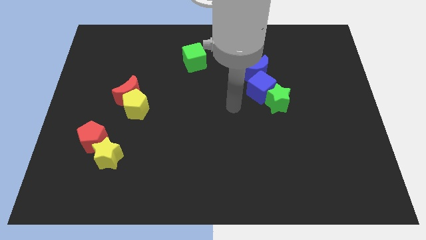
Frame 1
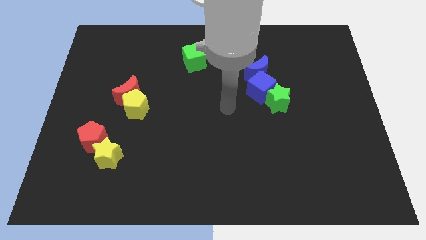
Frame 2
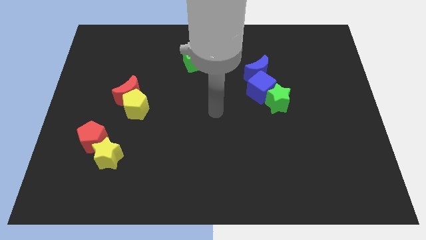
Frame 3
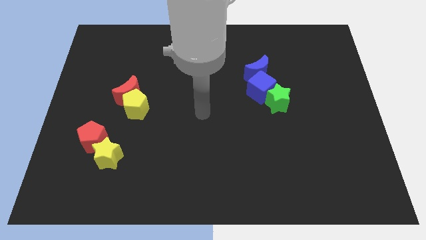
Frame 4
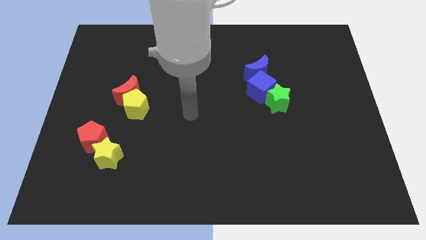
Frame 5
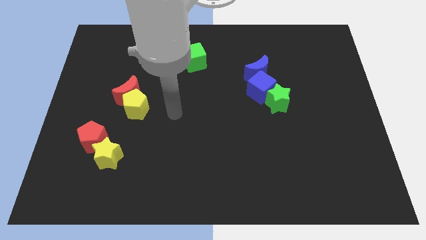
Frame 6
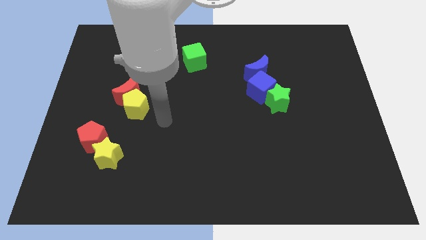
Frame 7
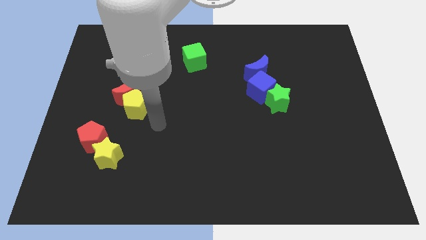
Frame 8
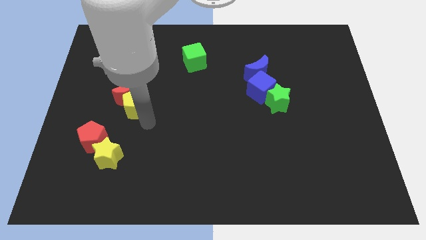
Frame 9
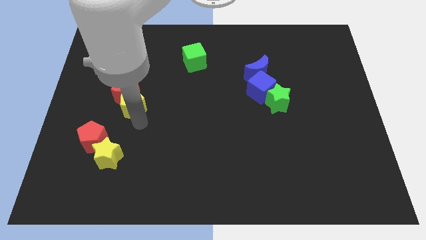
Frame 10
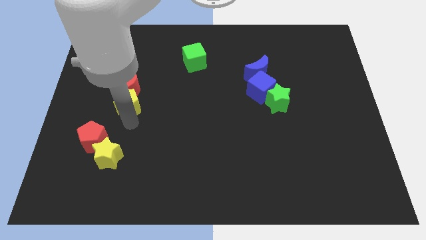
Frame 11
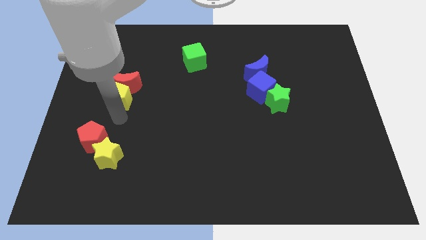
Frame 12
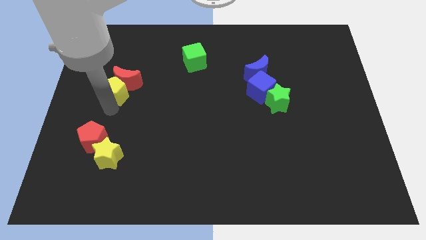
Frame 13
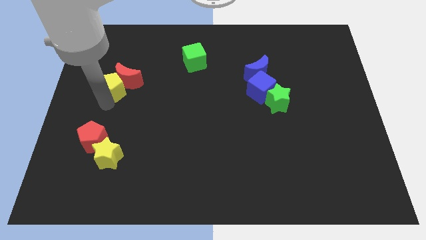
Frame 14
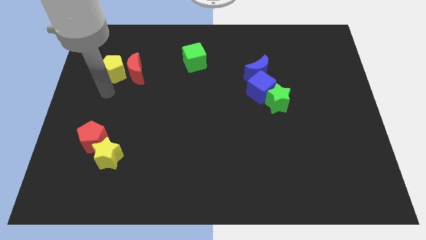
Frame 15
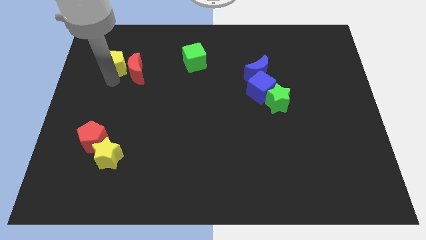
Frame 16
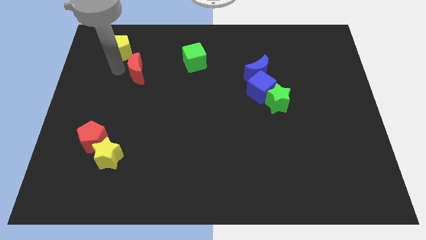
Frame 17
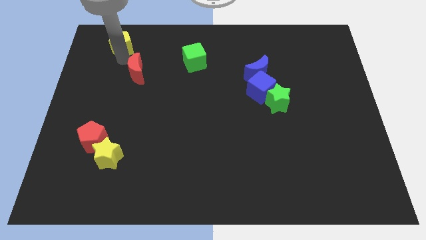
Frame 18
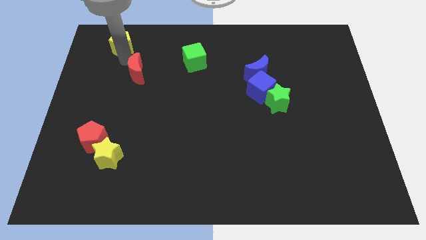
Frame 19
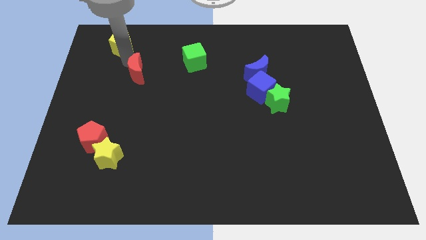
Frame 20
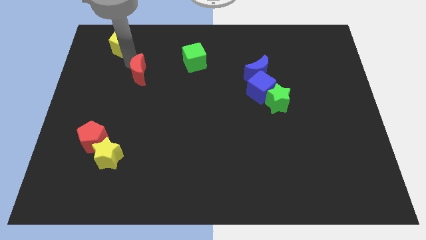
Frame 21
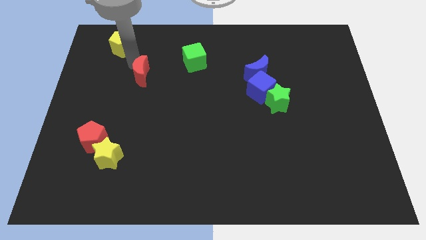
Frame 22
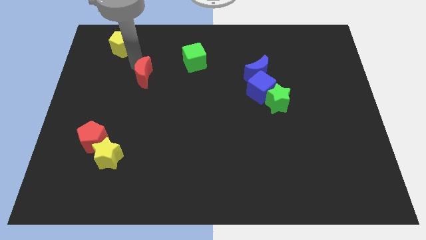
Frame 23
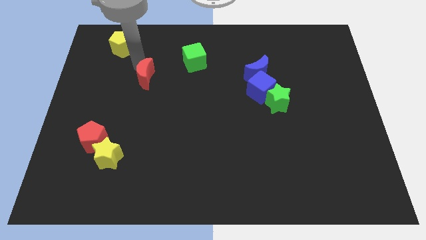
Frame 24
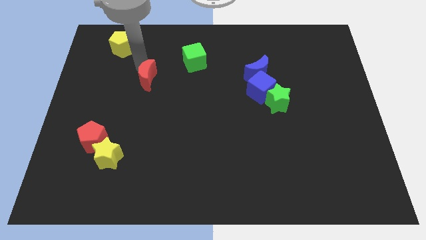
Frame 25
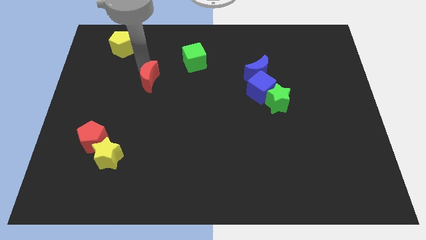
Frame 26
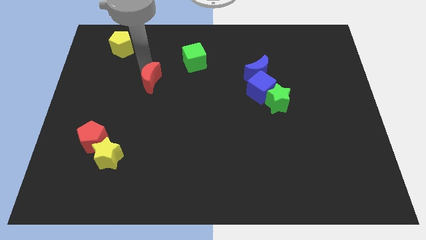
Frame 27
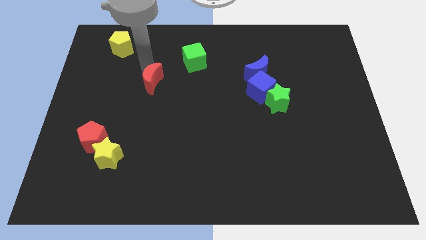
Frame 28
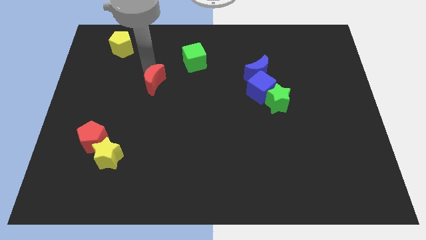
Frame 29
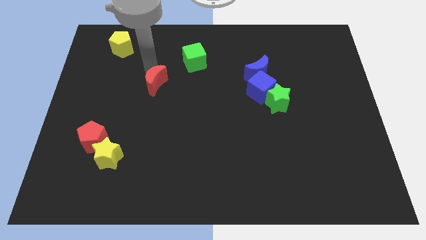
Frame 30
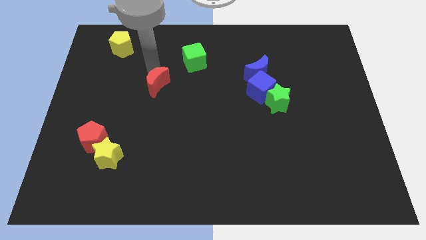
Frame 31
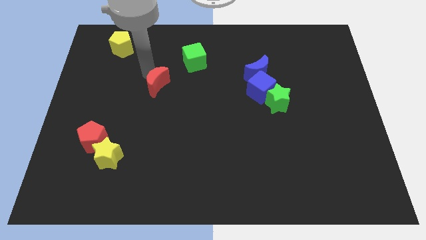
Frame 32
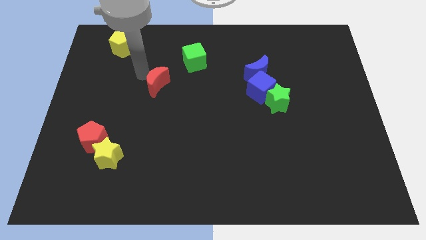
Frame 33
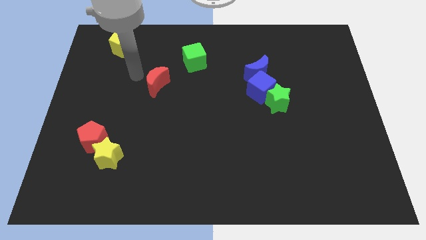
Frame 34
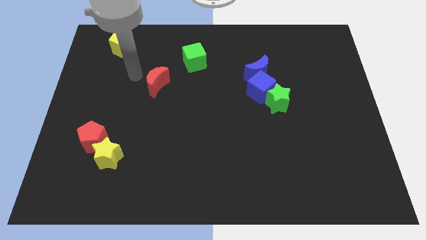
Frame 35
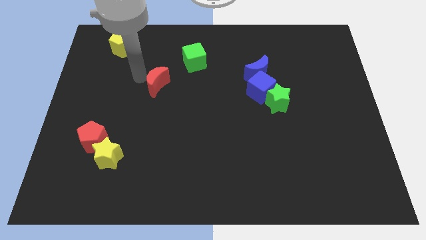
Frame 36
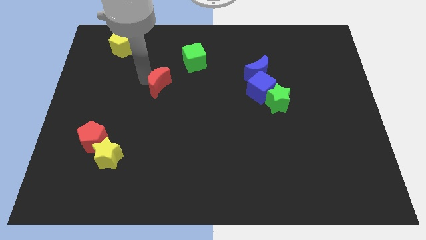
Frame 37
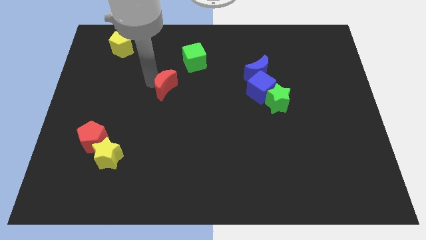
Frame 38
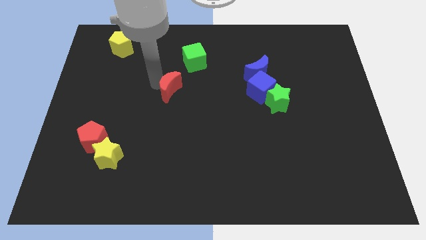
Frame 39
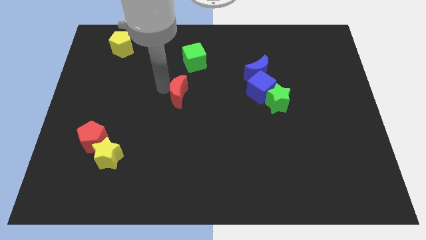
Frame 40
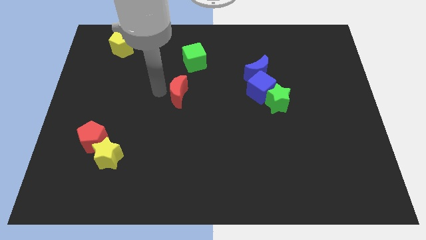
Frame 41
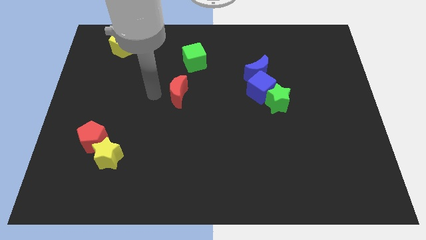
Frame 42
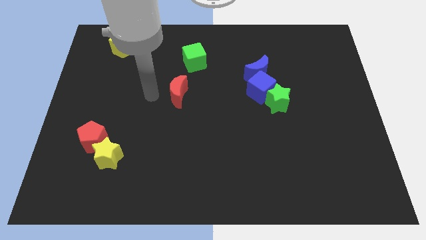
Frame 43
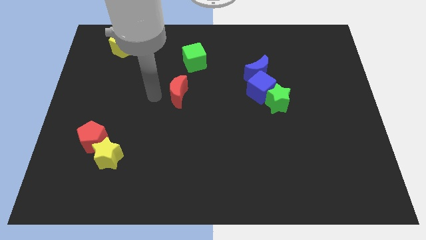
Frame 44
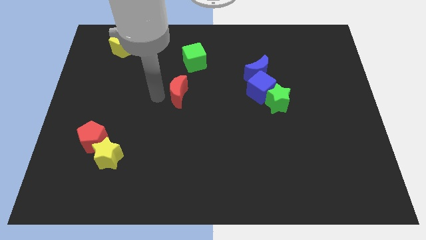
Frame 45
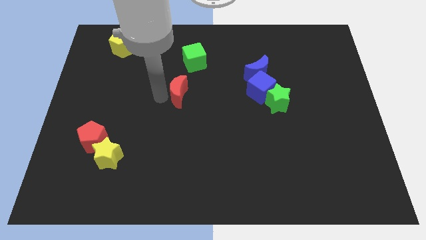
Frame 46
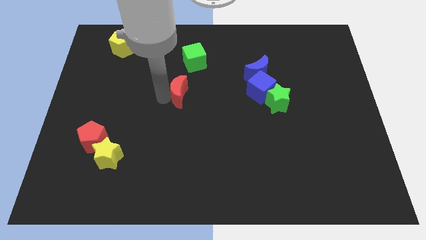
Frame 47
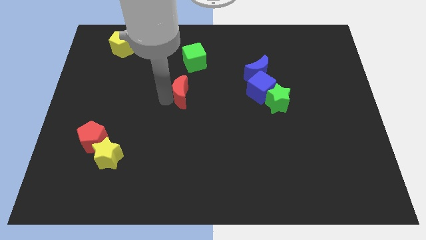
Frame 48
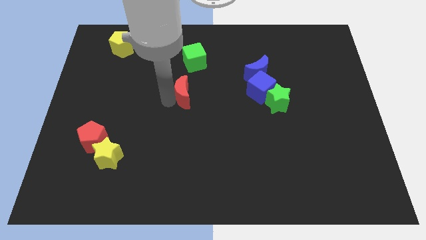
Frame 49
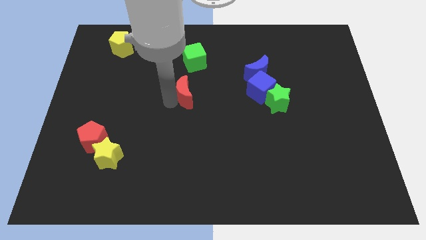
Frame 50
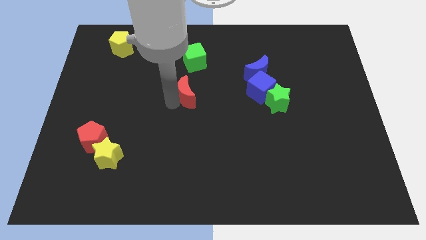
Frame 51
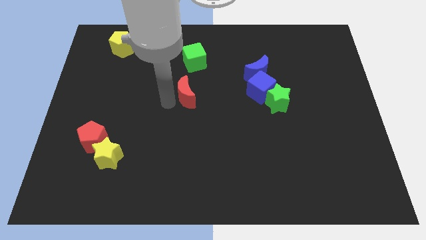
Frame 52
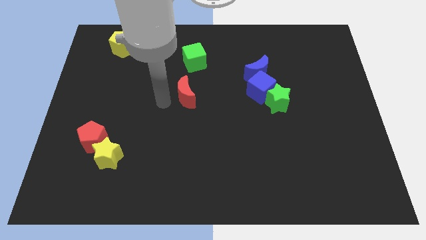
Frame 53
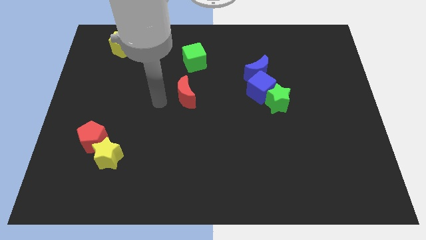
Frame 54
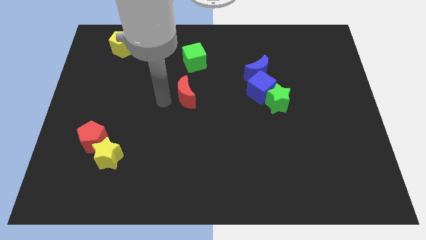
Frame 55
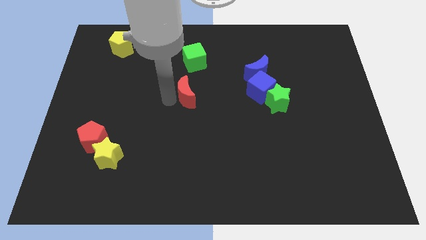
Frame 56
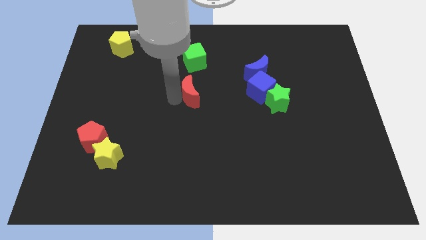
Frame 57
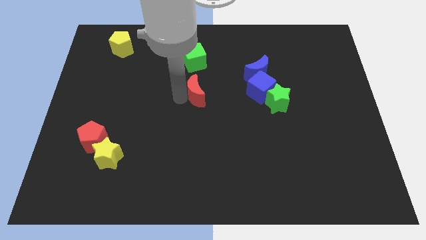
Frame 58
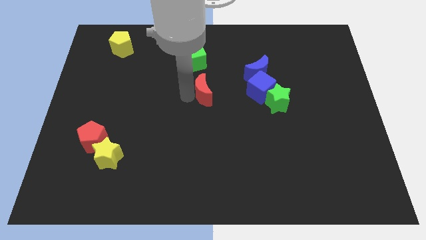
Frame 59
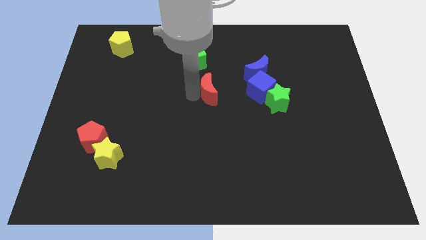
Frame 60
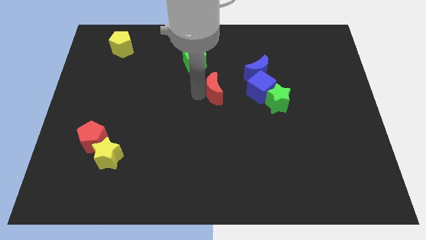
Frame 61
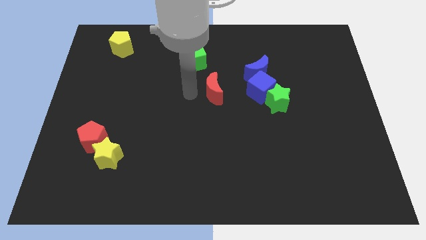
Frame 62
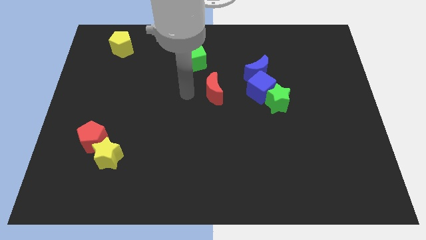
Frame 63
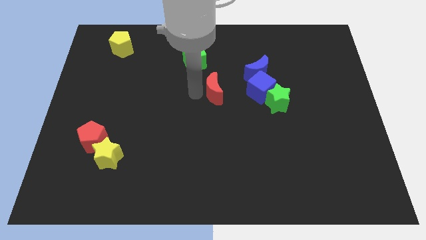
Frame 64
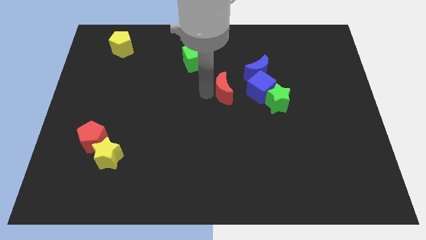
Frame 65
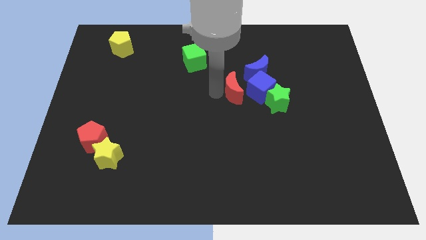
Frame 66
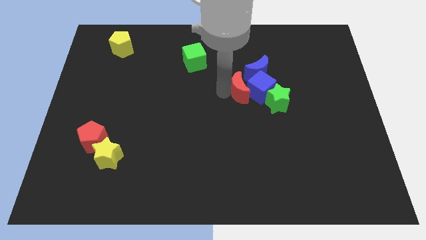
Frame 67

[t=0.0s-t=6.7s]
put the red moon next to the blue cube
